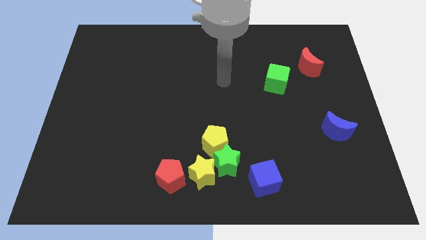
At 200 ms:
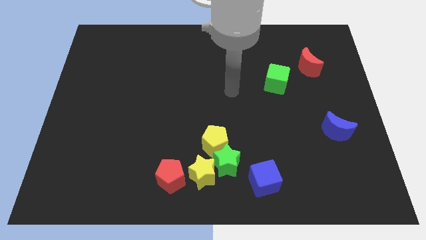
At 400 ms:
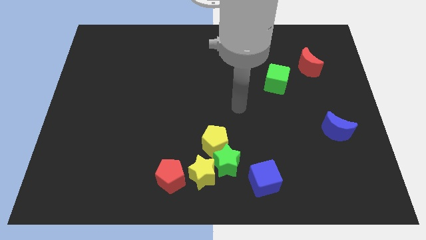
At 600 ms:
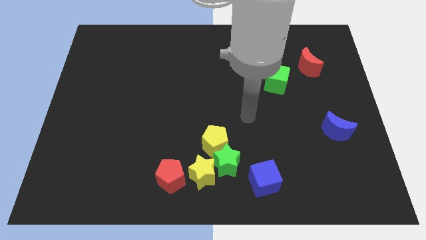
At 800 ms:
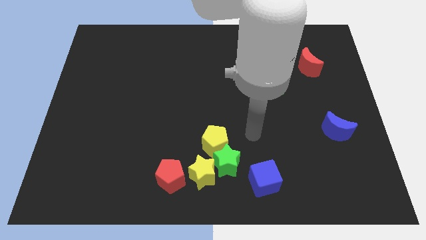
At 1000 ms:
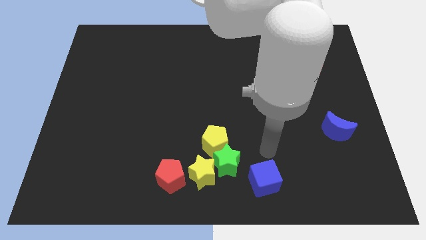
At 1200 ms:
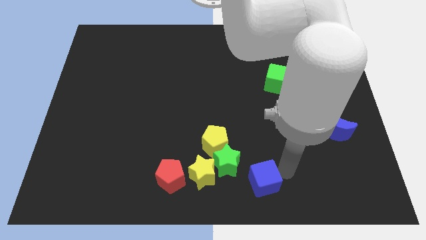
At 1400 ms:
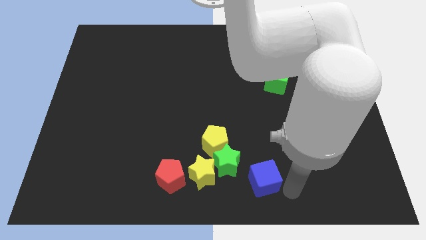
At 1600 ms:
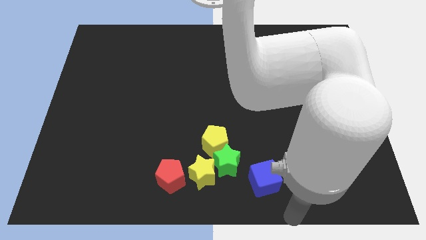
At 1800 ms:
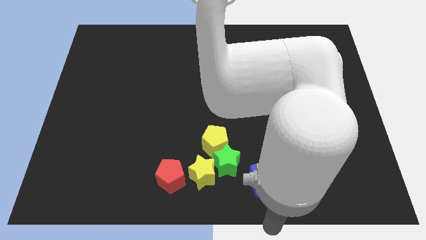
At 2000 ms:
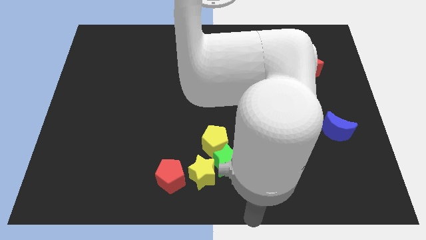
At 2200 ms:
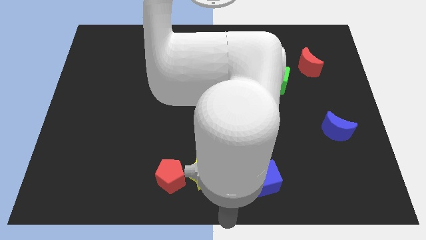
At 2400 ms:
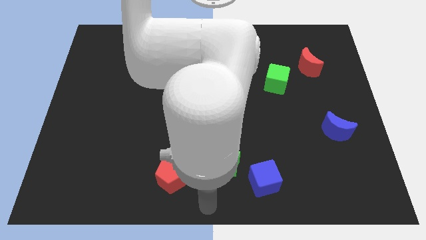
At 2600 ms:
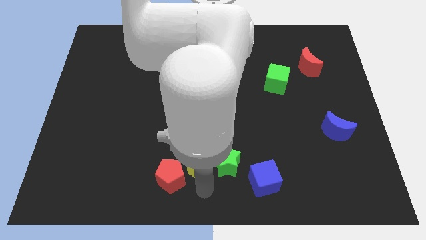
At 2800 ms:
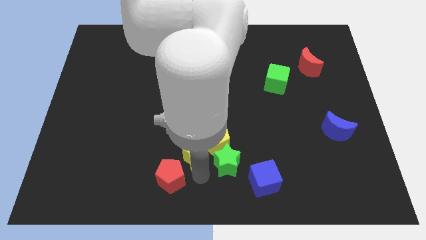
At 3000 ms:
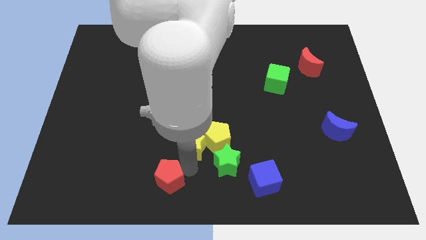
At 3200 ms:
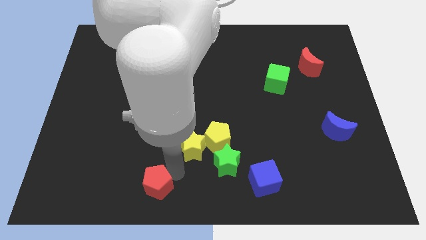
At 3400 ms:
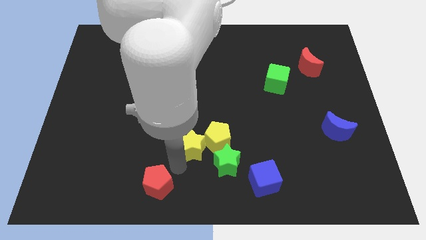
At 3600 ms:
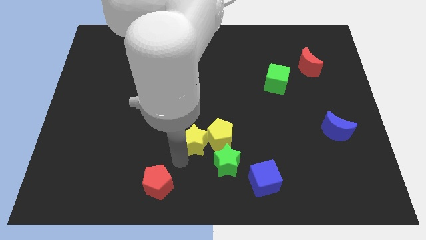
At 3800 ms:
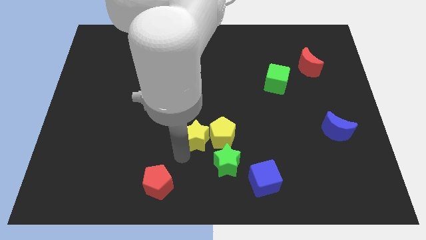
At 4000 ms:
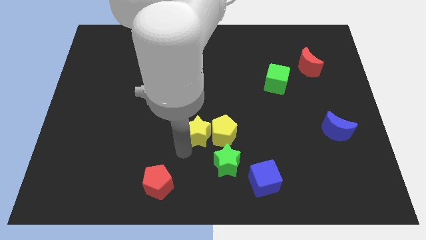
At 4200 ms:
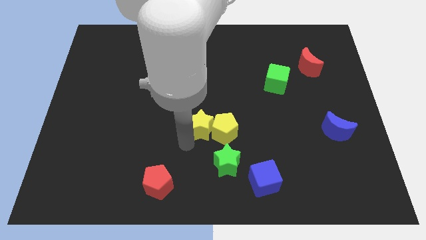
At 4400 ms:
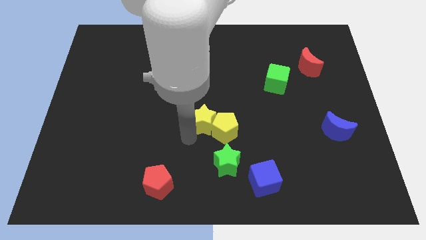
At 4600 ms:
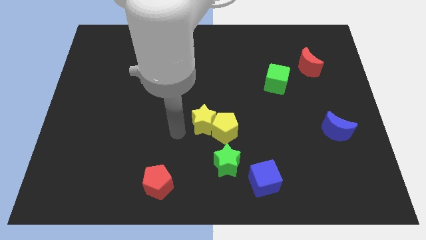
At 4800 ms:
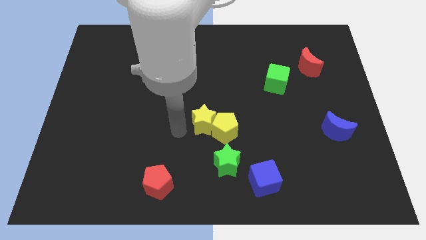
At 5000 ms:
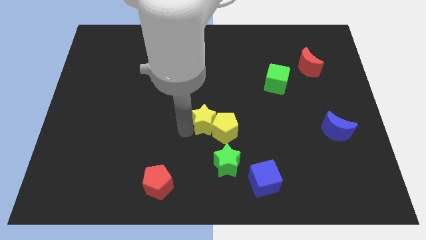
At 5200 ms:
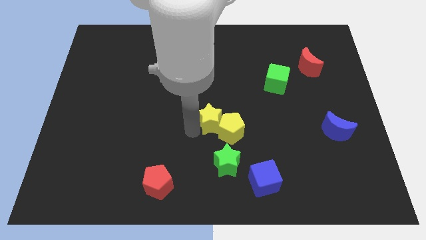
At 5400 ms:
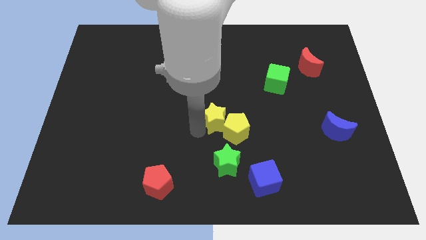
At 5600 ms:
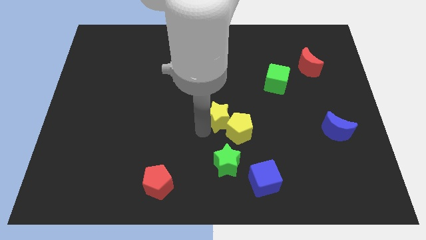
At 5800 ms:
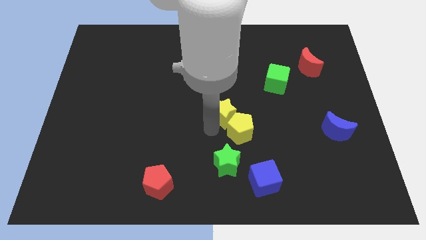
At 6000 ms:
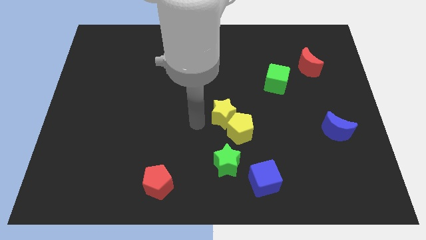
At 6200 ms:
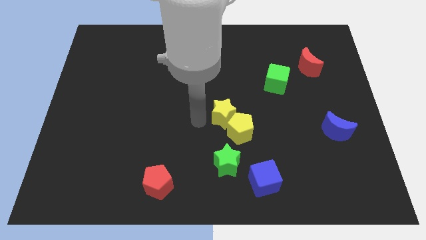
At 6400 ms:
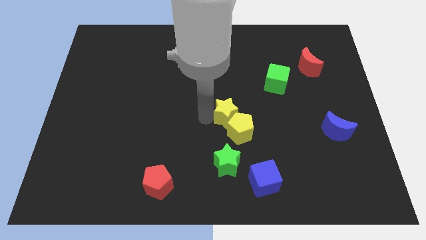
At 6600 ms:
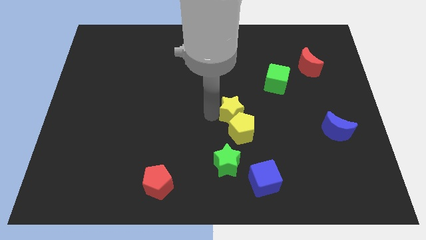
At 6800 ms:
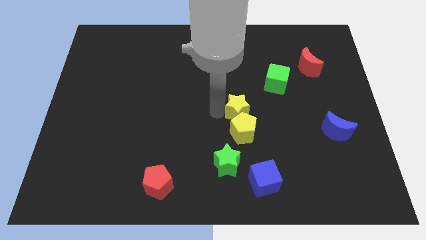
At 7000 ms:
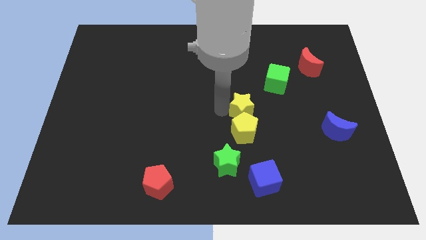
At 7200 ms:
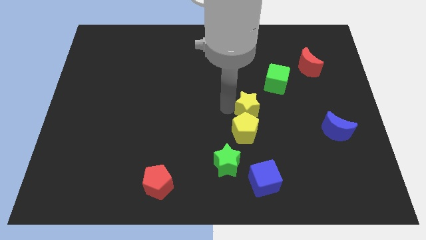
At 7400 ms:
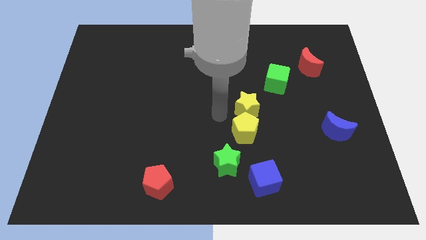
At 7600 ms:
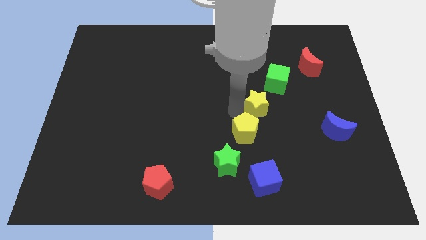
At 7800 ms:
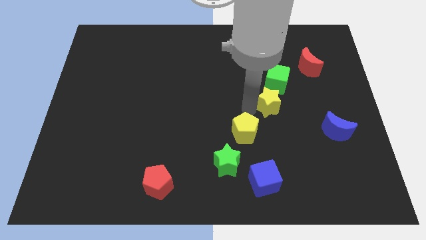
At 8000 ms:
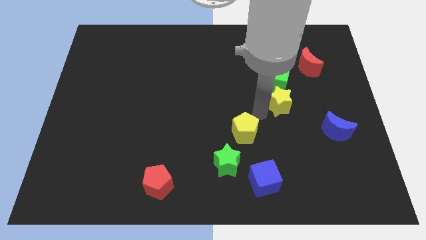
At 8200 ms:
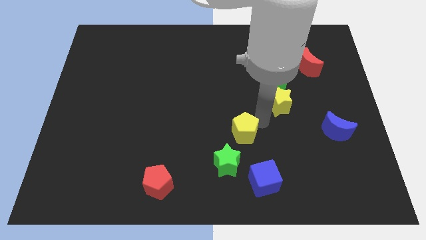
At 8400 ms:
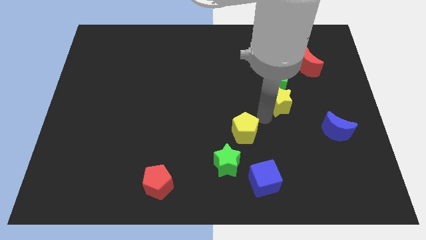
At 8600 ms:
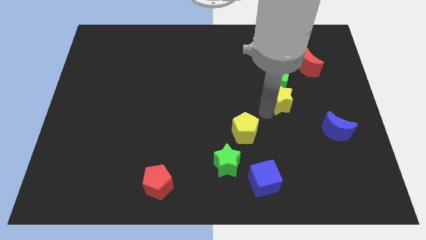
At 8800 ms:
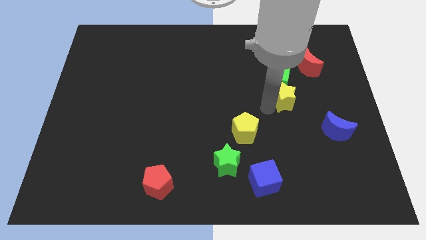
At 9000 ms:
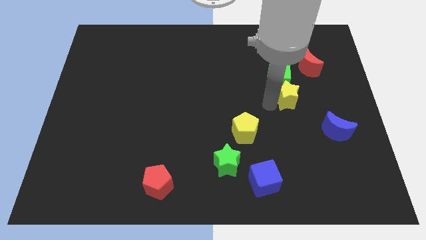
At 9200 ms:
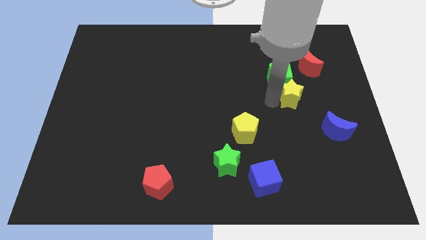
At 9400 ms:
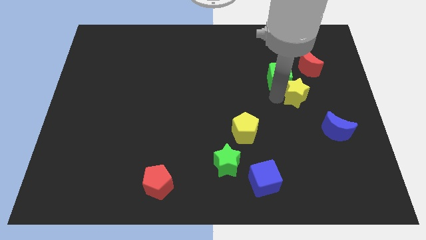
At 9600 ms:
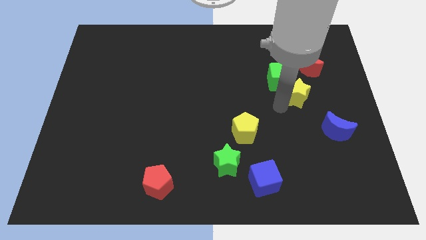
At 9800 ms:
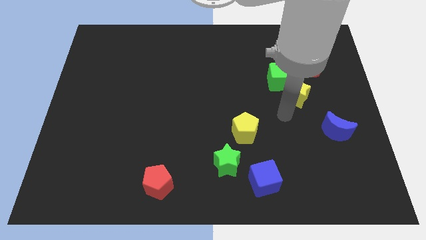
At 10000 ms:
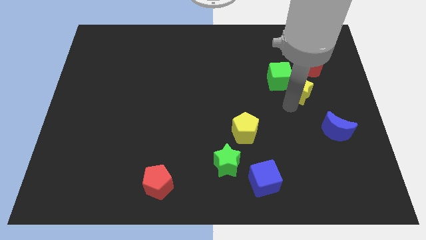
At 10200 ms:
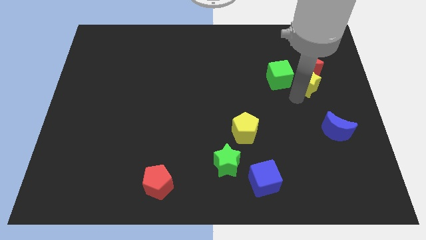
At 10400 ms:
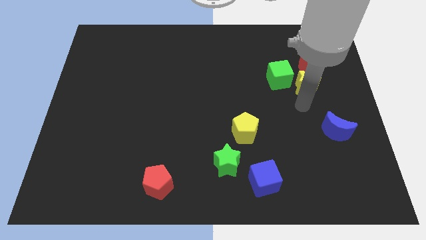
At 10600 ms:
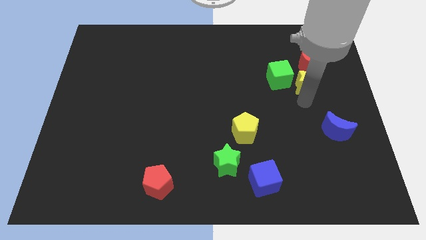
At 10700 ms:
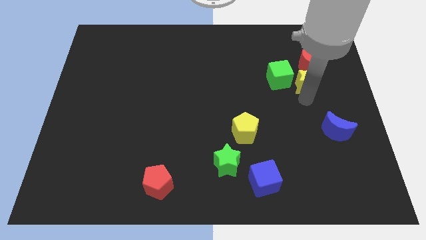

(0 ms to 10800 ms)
put the yellow star towards the red moon

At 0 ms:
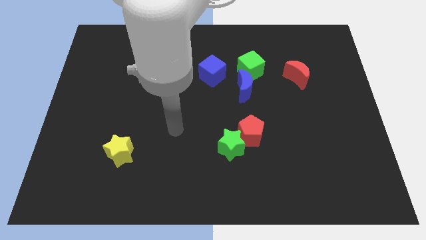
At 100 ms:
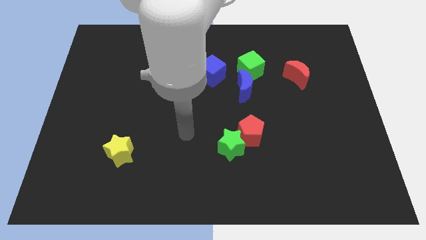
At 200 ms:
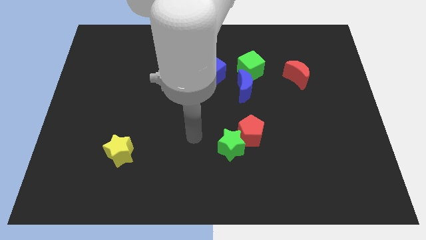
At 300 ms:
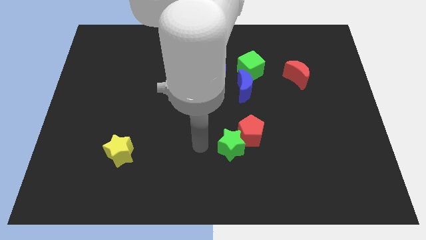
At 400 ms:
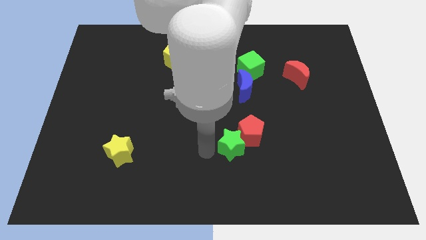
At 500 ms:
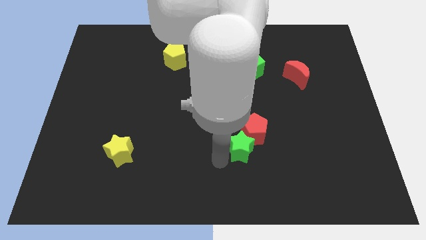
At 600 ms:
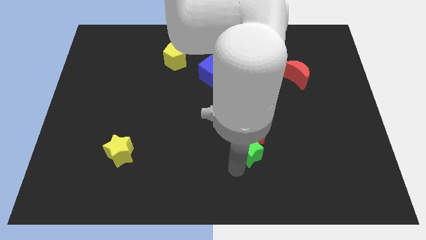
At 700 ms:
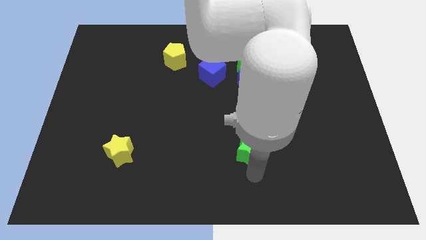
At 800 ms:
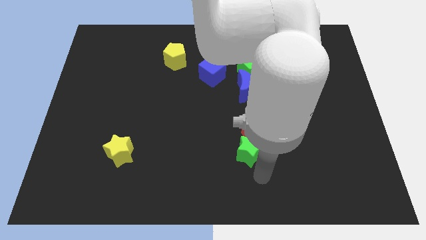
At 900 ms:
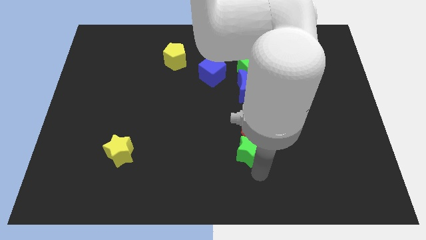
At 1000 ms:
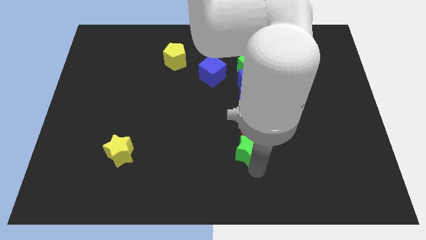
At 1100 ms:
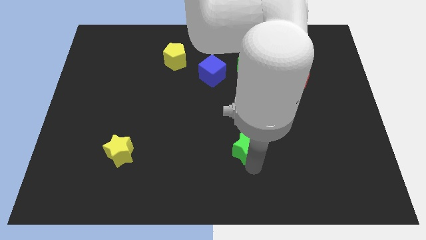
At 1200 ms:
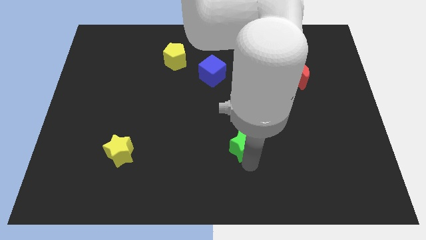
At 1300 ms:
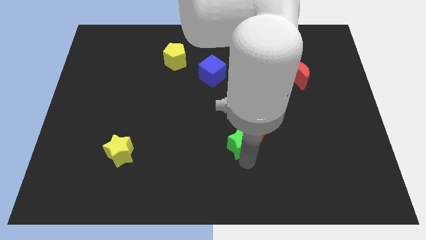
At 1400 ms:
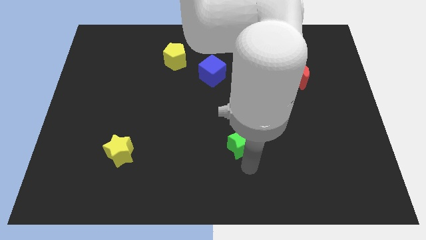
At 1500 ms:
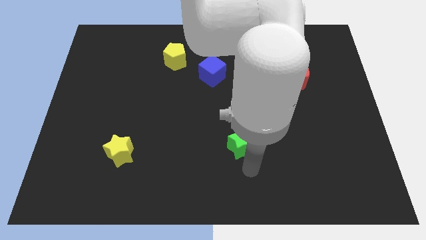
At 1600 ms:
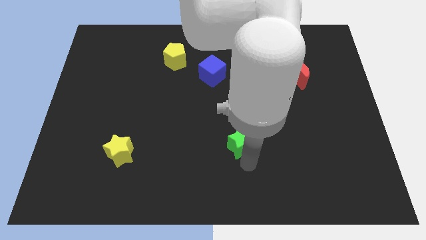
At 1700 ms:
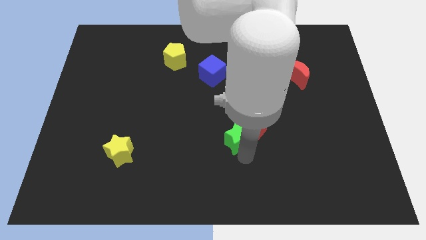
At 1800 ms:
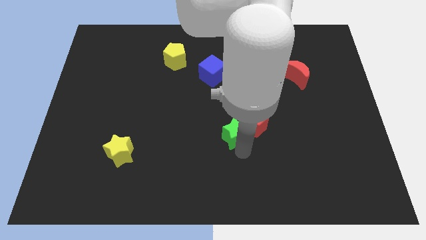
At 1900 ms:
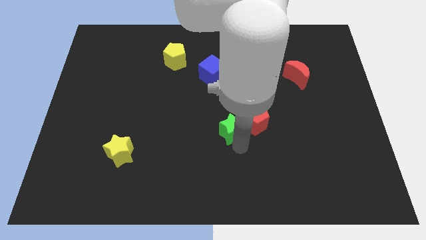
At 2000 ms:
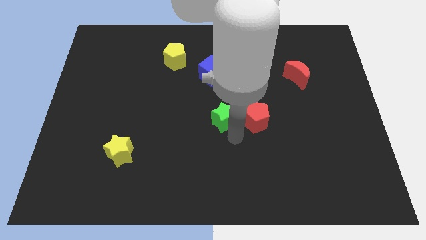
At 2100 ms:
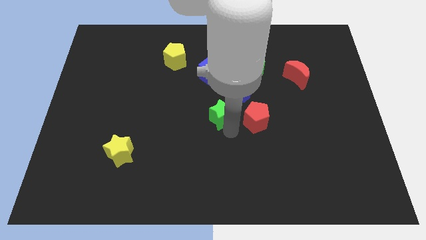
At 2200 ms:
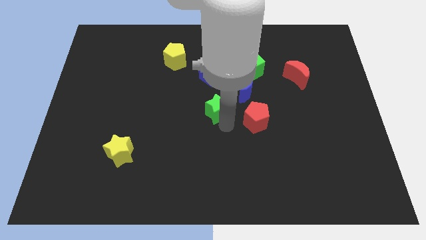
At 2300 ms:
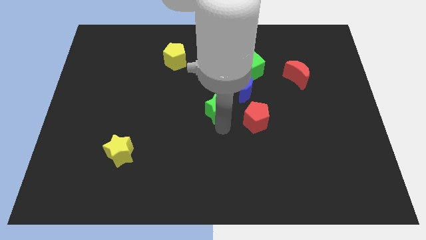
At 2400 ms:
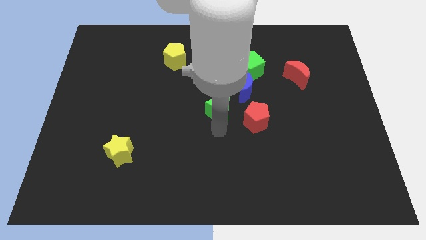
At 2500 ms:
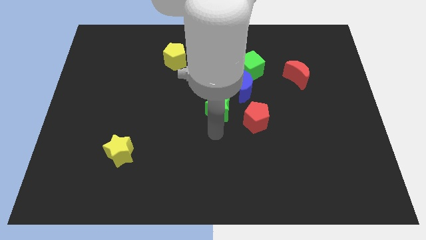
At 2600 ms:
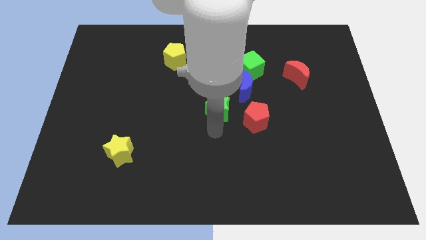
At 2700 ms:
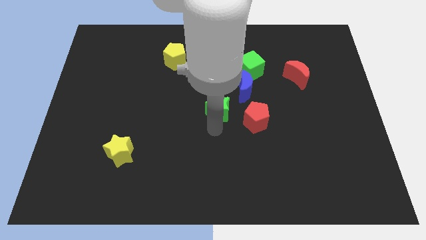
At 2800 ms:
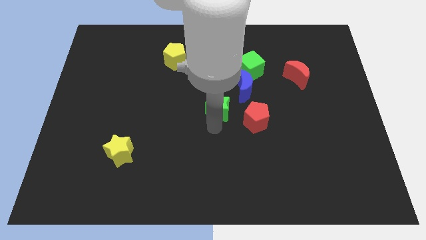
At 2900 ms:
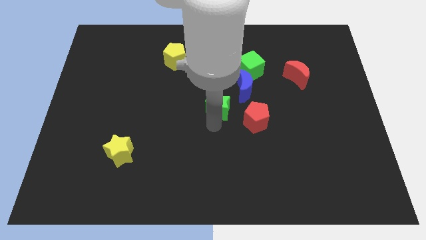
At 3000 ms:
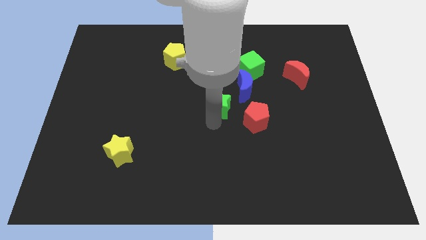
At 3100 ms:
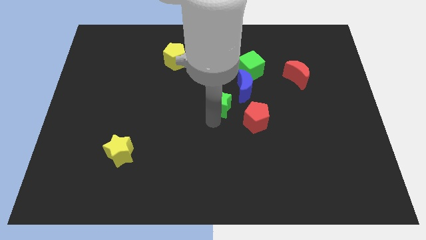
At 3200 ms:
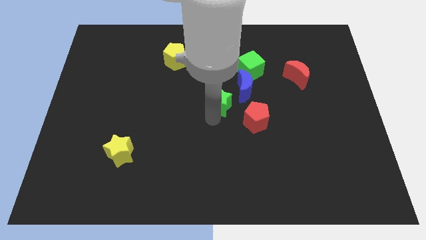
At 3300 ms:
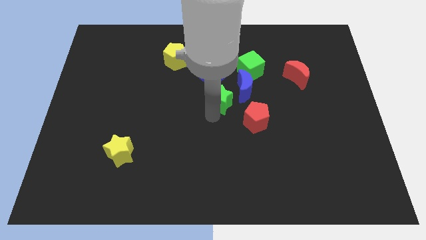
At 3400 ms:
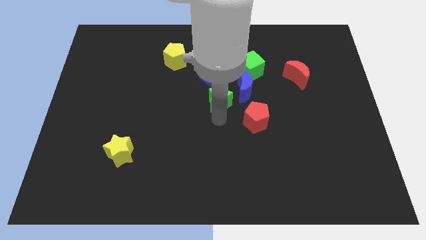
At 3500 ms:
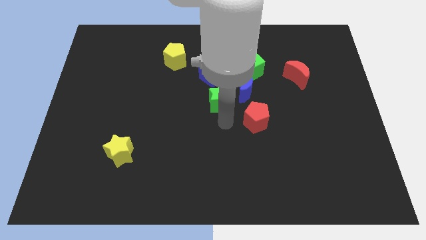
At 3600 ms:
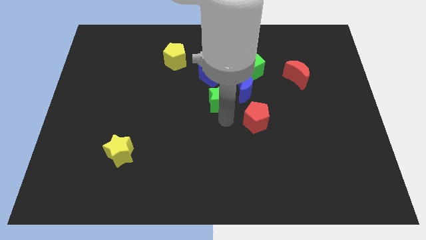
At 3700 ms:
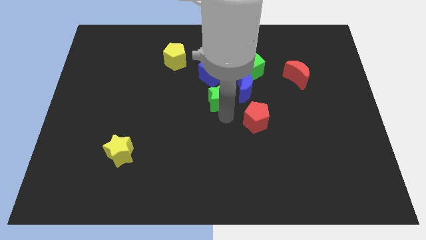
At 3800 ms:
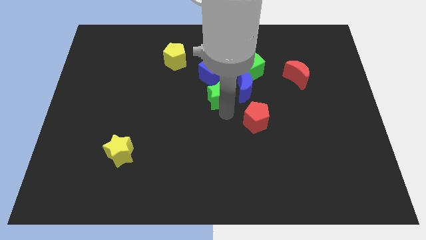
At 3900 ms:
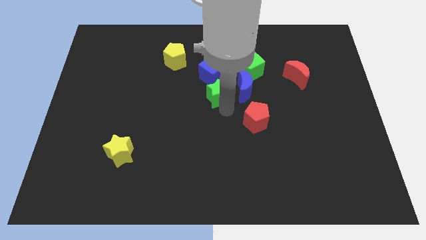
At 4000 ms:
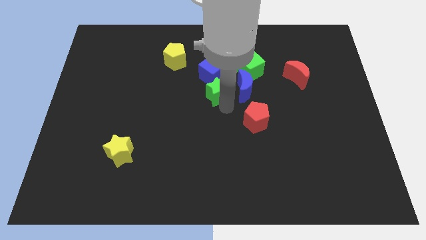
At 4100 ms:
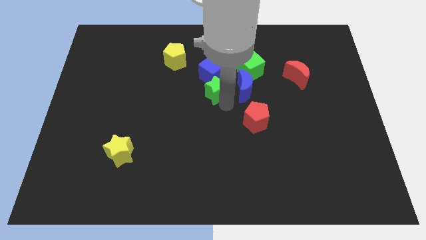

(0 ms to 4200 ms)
move the green star next to the blue cube
